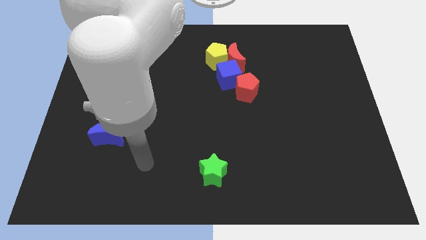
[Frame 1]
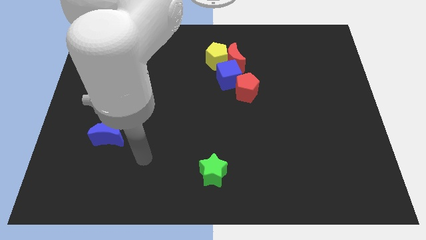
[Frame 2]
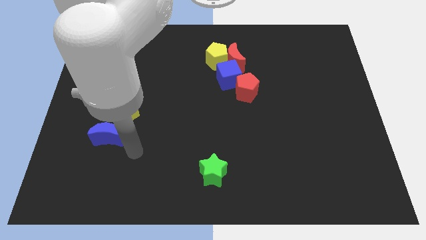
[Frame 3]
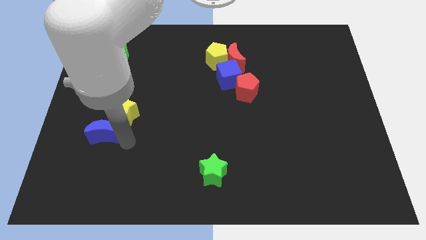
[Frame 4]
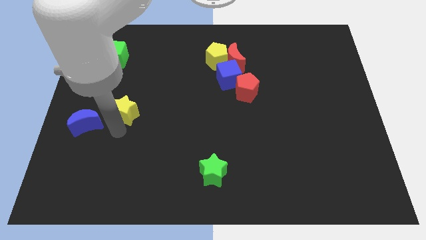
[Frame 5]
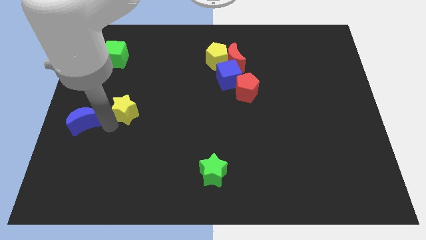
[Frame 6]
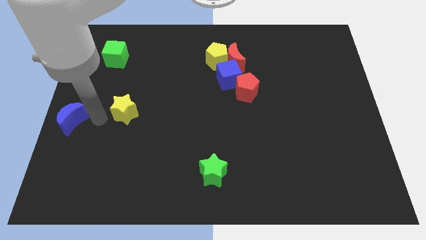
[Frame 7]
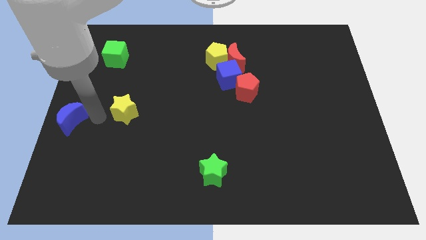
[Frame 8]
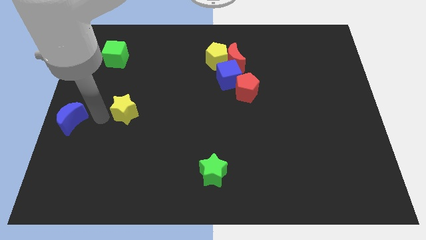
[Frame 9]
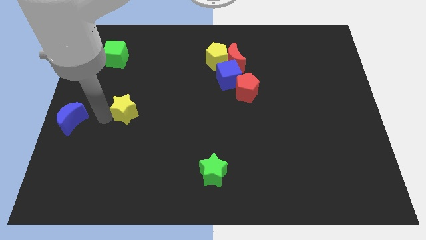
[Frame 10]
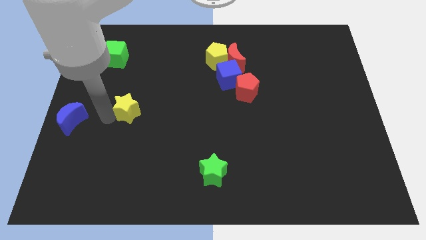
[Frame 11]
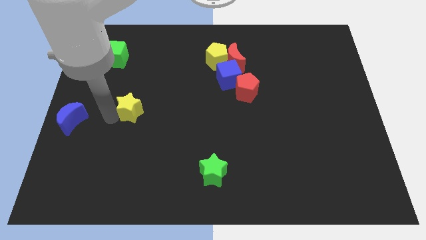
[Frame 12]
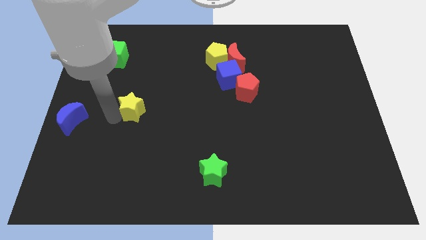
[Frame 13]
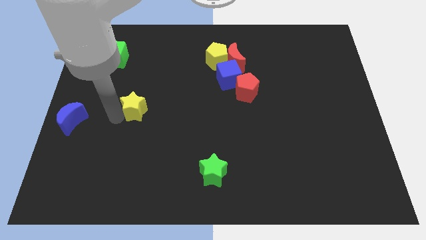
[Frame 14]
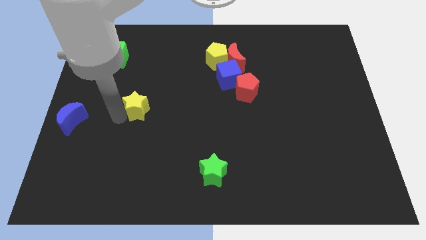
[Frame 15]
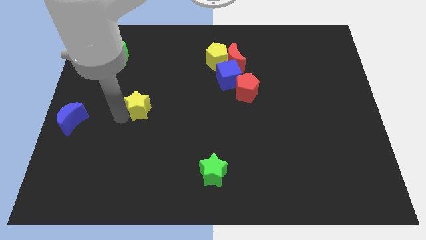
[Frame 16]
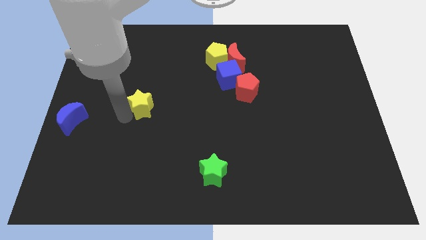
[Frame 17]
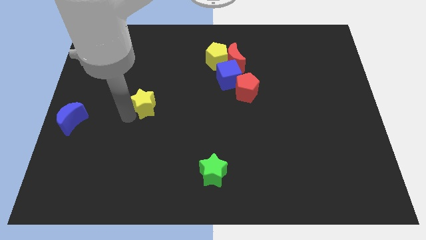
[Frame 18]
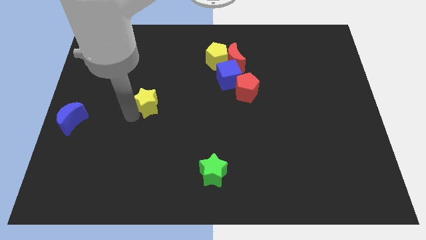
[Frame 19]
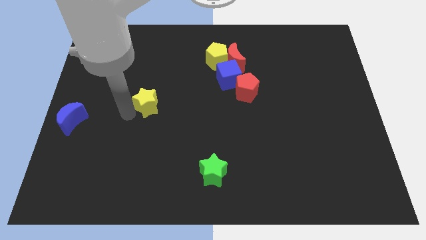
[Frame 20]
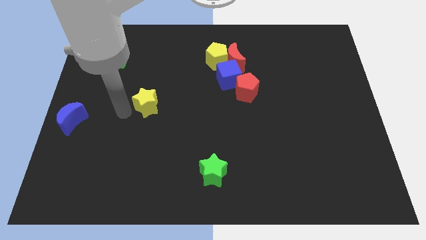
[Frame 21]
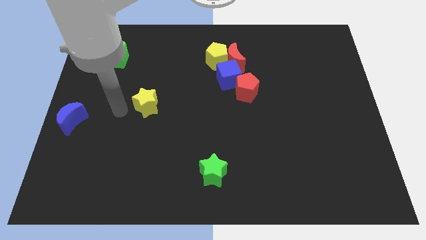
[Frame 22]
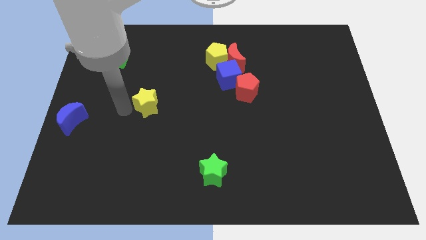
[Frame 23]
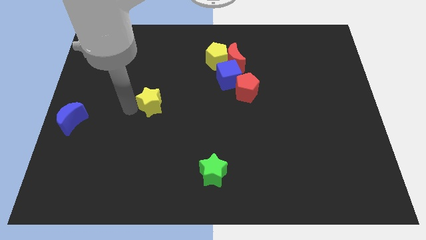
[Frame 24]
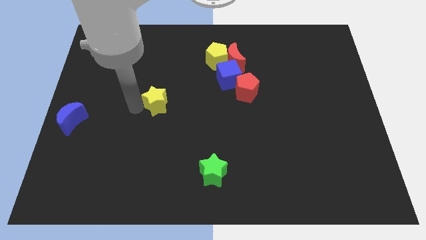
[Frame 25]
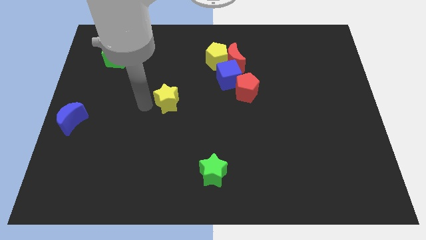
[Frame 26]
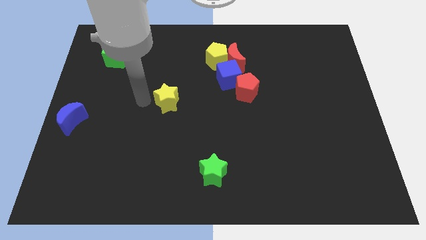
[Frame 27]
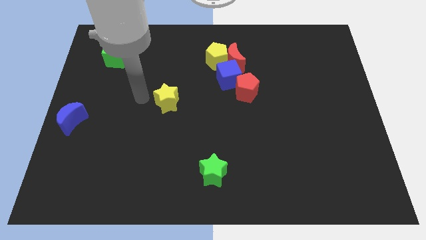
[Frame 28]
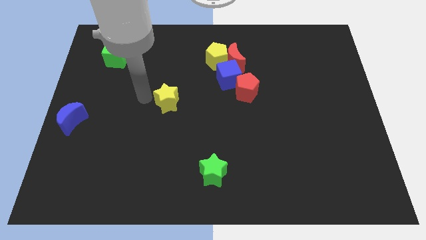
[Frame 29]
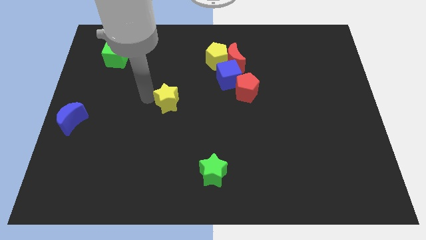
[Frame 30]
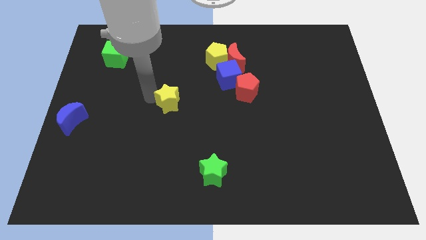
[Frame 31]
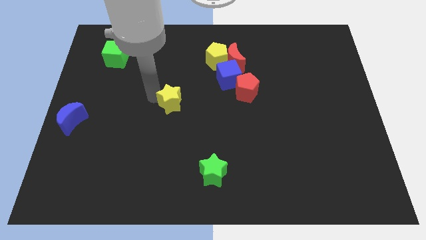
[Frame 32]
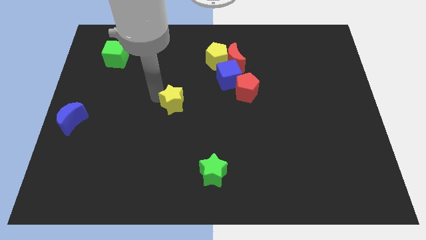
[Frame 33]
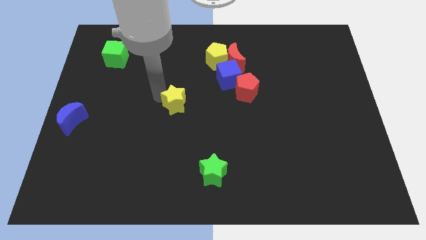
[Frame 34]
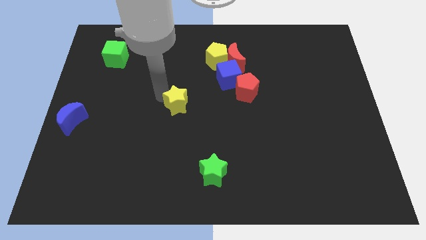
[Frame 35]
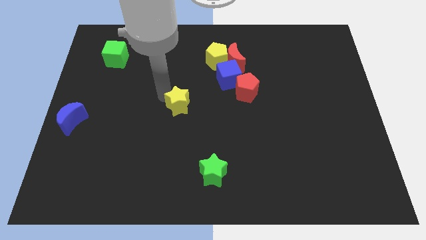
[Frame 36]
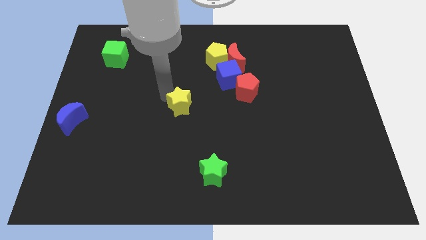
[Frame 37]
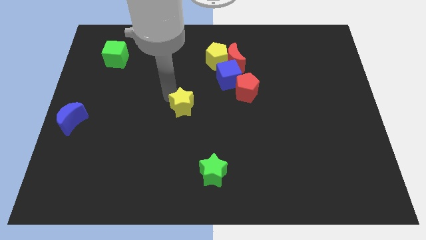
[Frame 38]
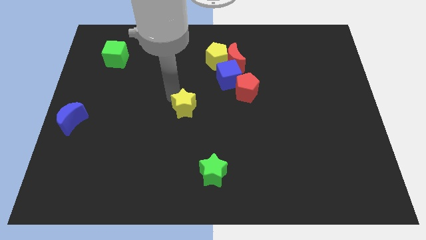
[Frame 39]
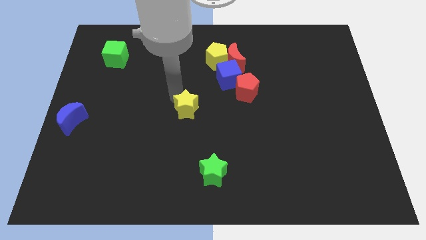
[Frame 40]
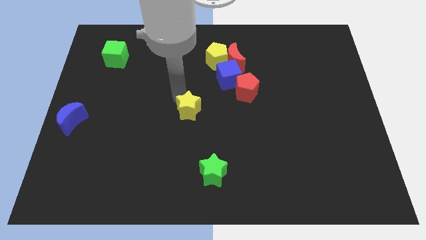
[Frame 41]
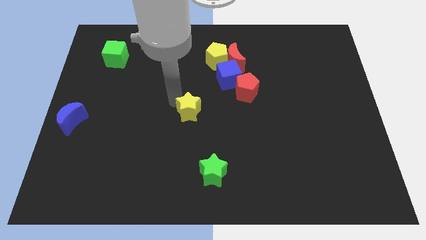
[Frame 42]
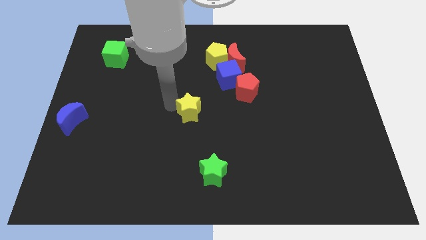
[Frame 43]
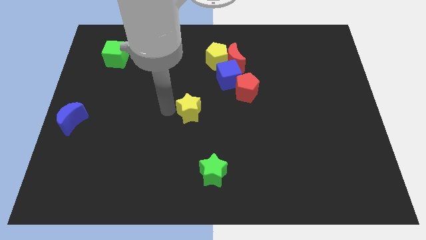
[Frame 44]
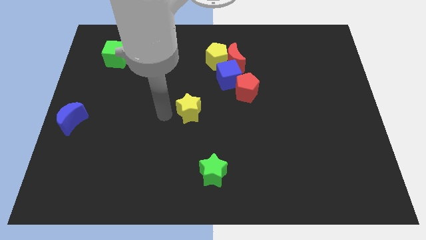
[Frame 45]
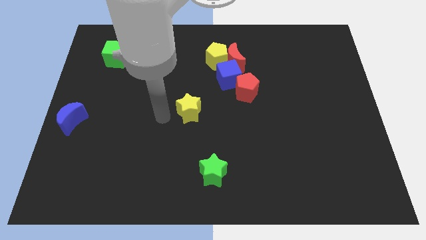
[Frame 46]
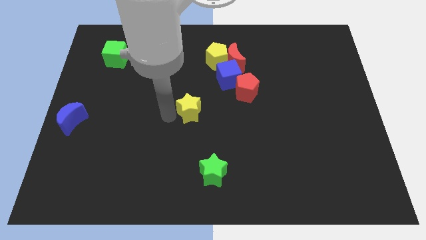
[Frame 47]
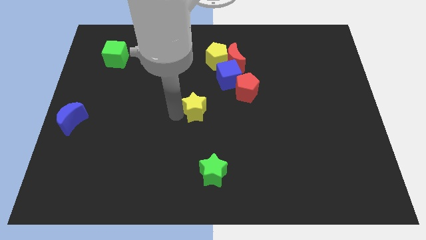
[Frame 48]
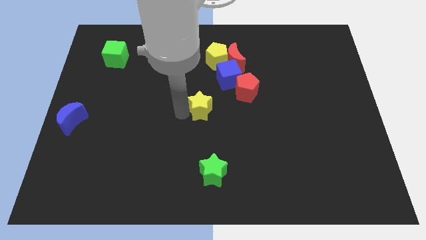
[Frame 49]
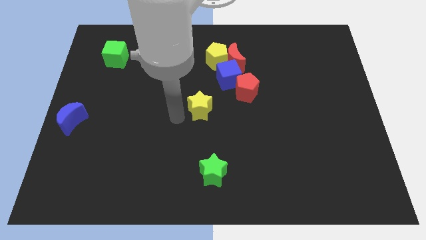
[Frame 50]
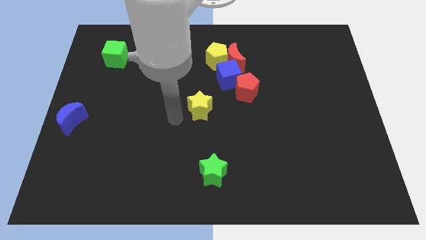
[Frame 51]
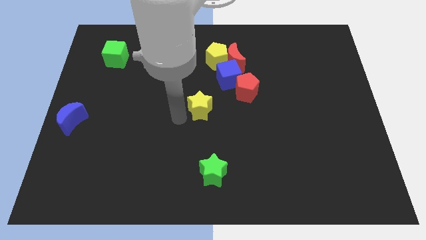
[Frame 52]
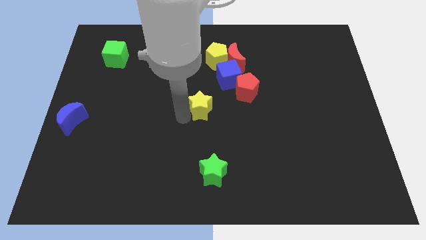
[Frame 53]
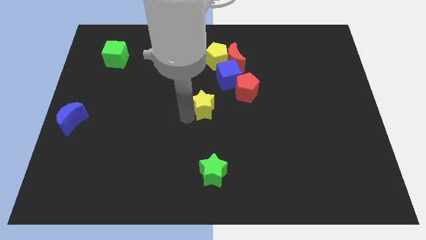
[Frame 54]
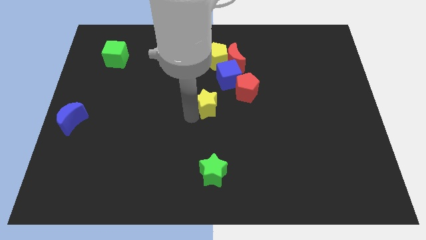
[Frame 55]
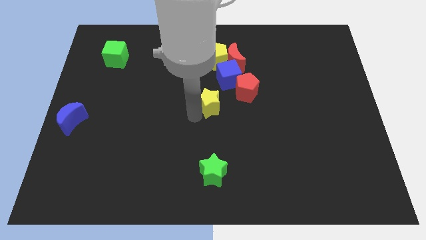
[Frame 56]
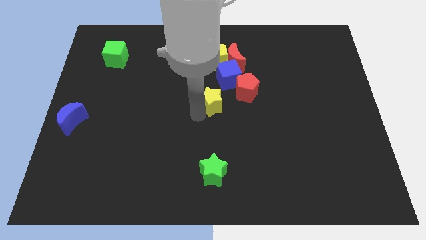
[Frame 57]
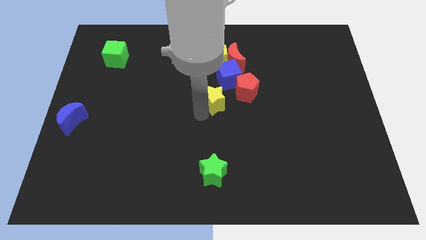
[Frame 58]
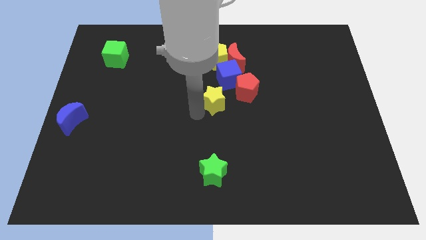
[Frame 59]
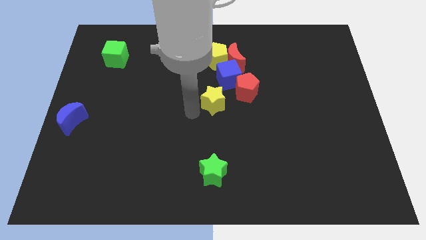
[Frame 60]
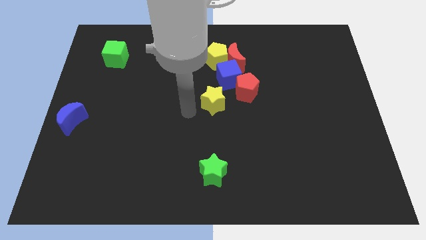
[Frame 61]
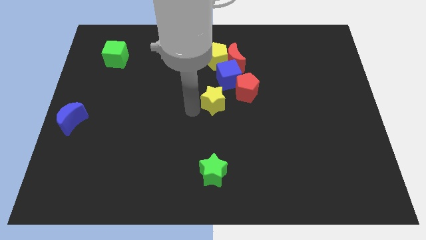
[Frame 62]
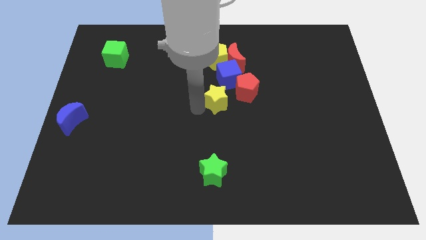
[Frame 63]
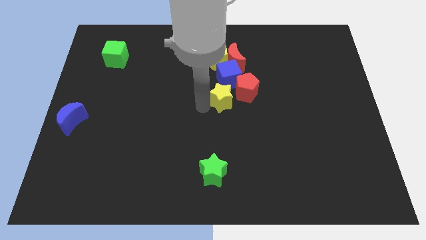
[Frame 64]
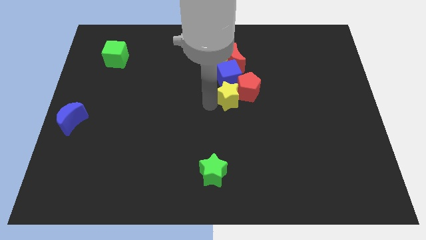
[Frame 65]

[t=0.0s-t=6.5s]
put the yellow star towards the red pentagon

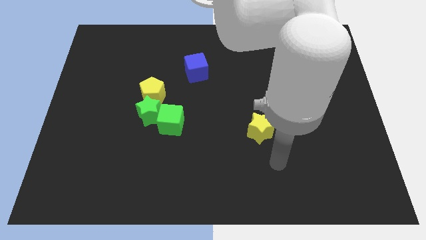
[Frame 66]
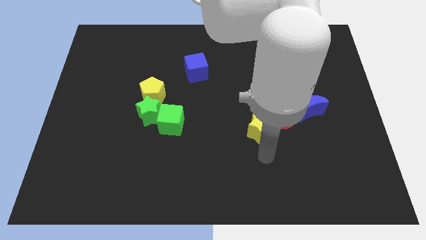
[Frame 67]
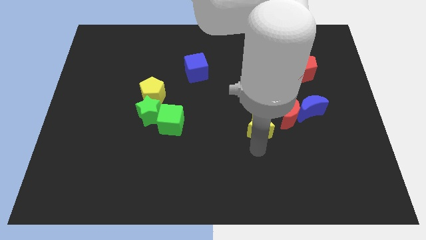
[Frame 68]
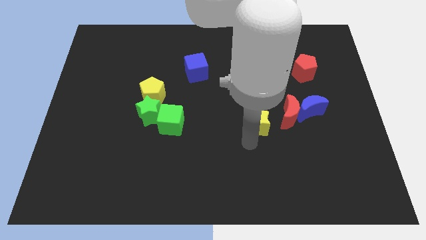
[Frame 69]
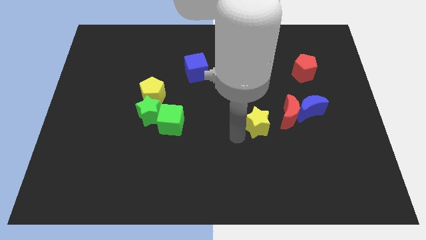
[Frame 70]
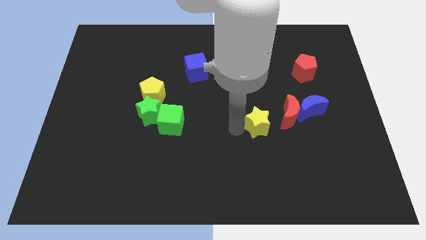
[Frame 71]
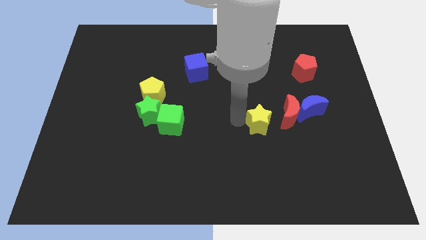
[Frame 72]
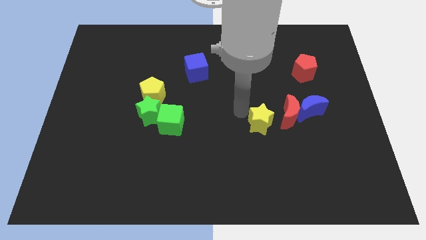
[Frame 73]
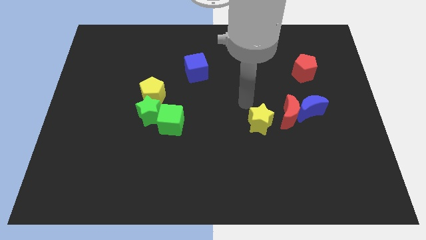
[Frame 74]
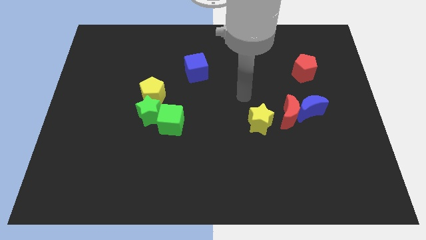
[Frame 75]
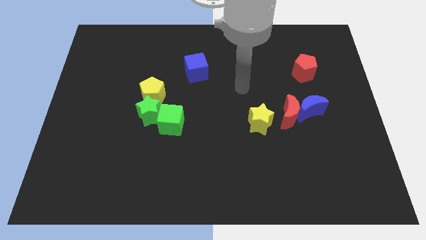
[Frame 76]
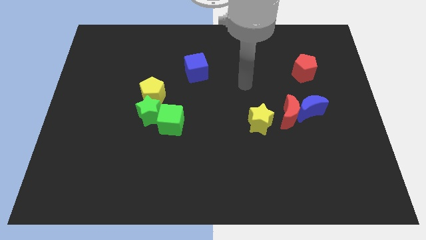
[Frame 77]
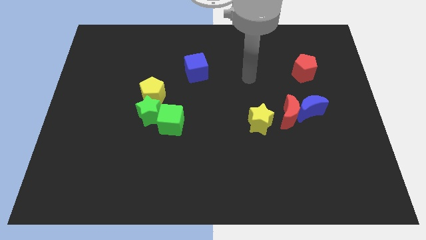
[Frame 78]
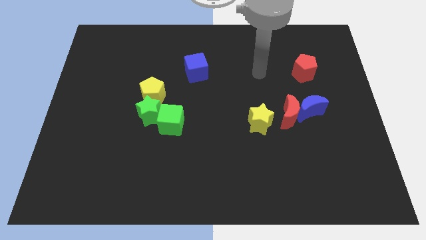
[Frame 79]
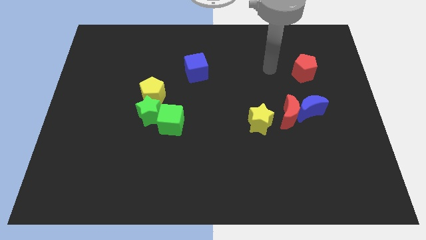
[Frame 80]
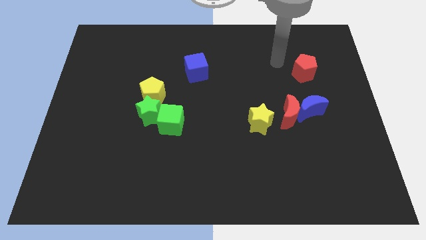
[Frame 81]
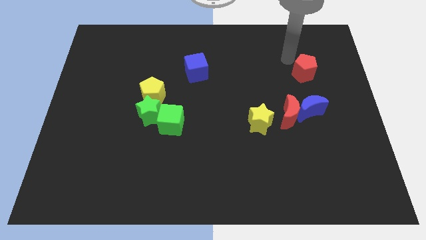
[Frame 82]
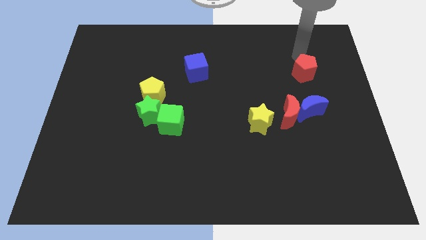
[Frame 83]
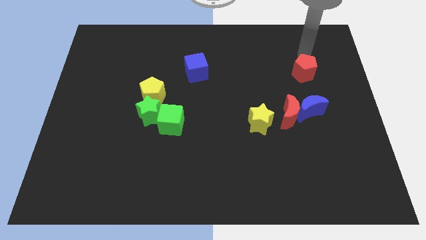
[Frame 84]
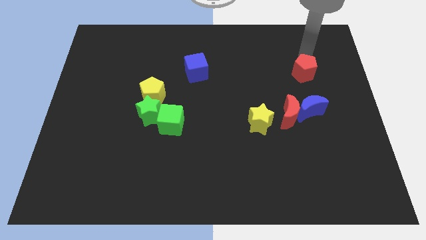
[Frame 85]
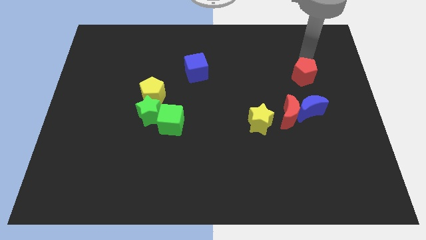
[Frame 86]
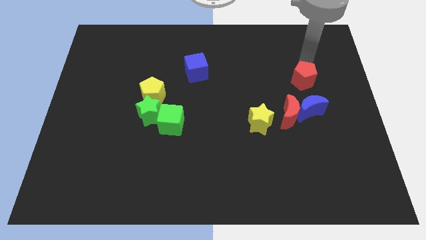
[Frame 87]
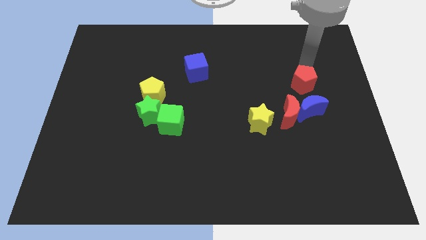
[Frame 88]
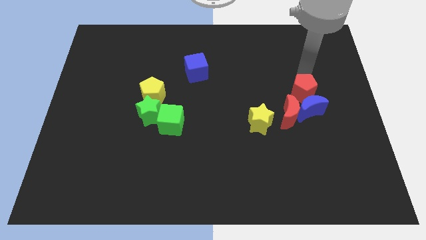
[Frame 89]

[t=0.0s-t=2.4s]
move the red pentagon to the blue moon
